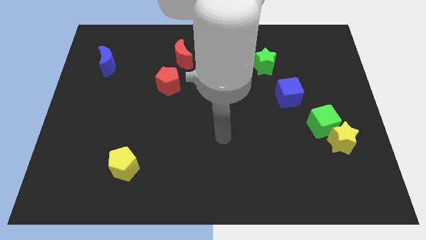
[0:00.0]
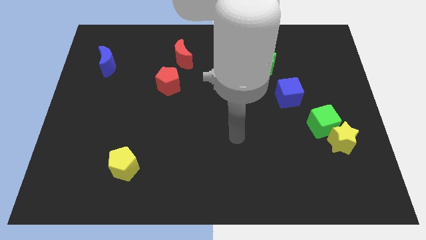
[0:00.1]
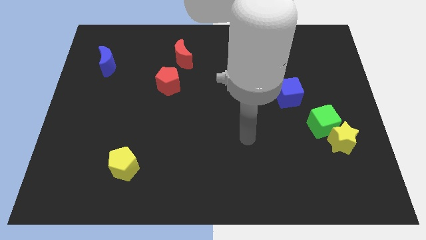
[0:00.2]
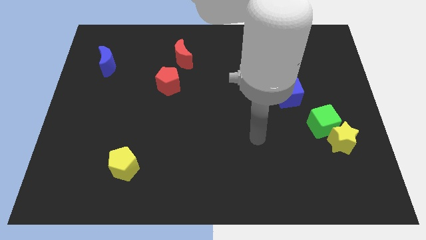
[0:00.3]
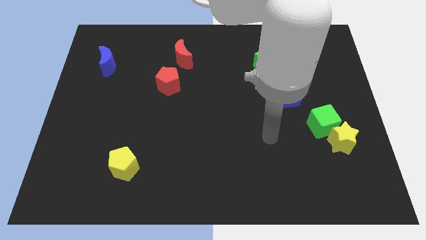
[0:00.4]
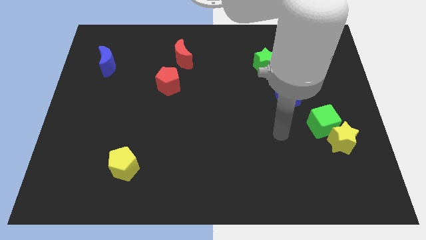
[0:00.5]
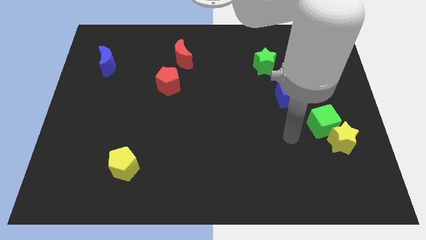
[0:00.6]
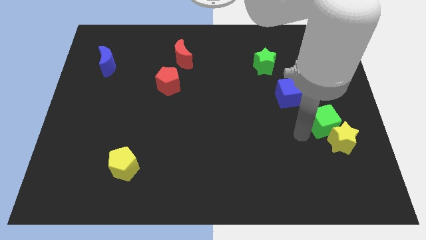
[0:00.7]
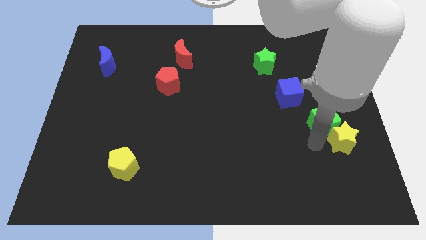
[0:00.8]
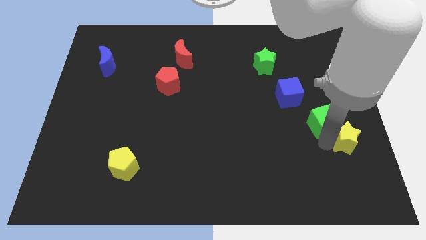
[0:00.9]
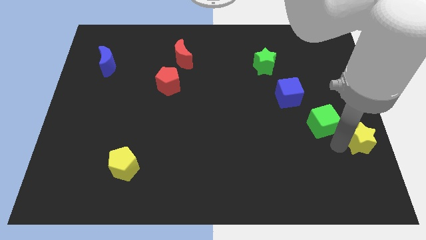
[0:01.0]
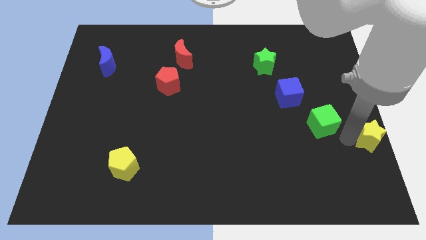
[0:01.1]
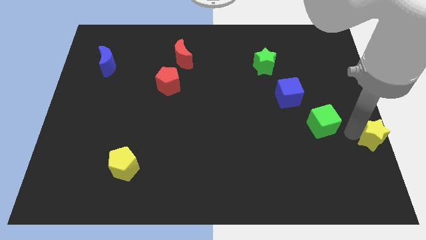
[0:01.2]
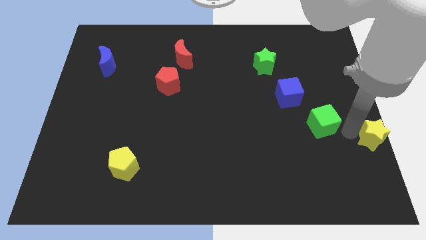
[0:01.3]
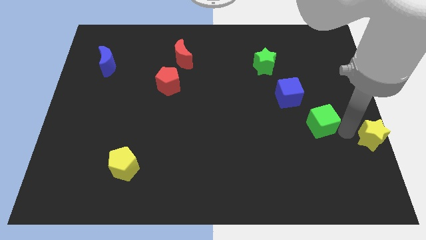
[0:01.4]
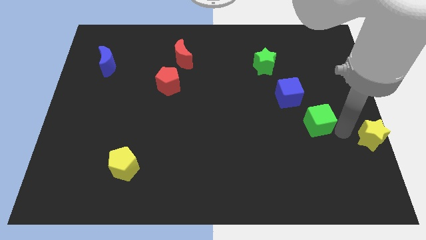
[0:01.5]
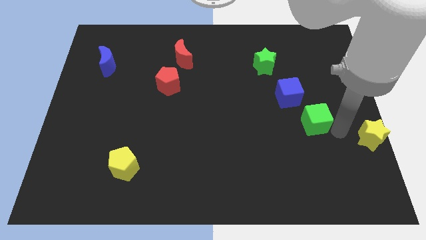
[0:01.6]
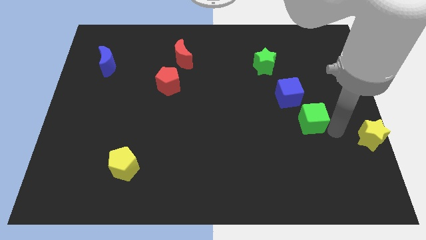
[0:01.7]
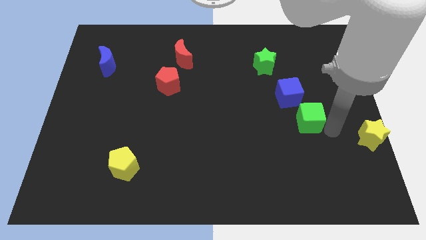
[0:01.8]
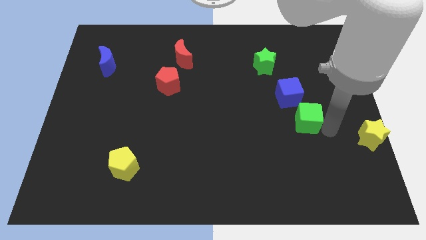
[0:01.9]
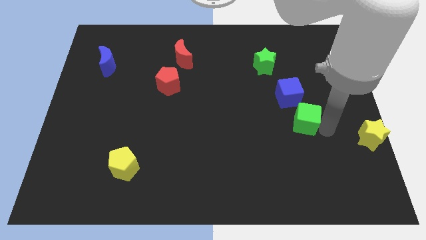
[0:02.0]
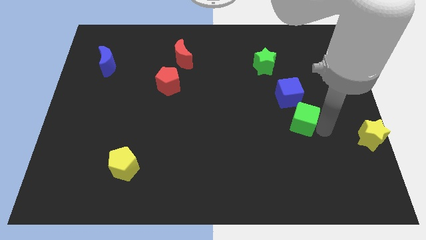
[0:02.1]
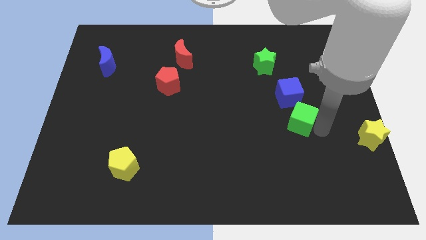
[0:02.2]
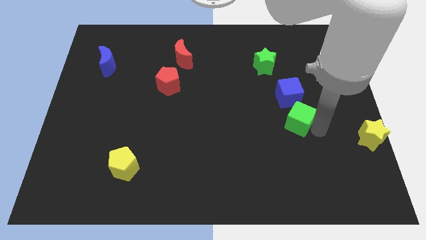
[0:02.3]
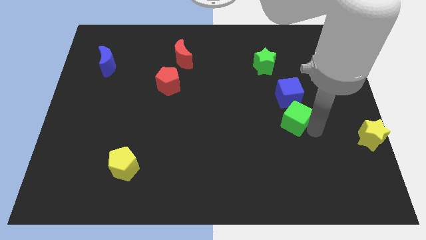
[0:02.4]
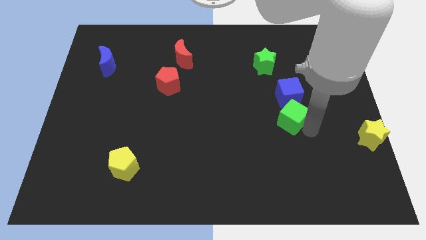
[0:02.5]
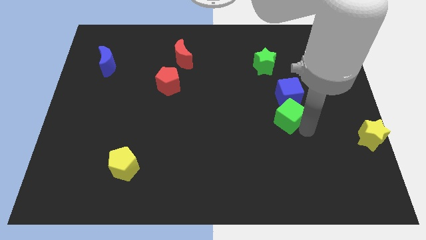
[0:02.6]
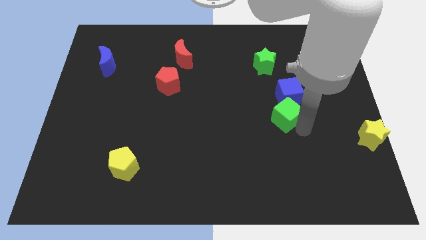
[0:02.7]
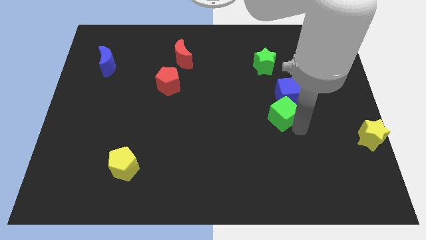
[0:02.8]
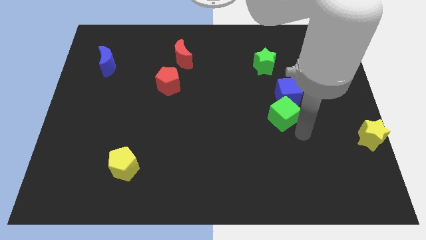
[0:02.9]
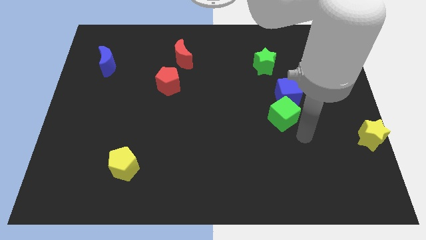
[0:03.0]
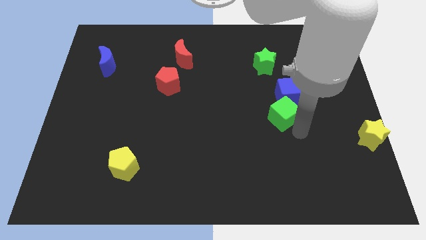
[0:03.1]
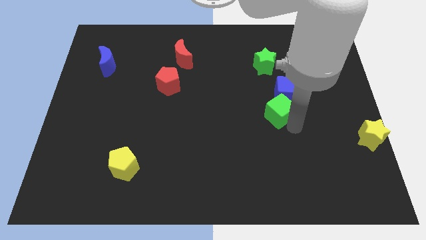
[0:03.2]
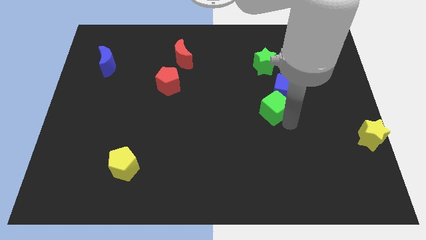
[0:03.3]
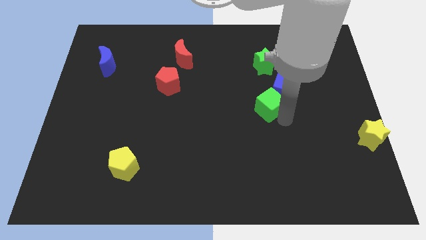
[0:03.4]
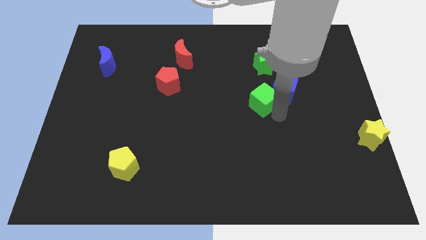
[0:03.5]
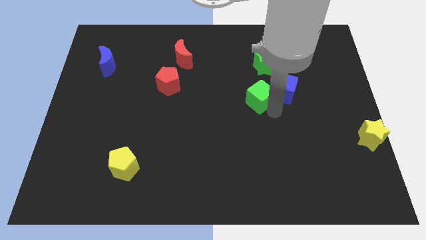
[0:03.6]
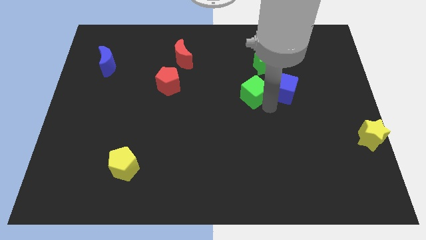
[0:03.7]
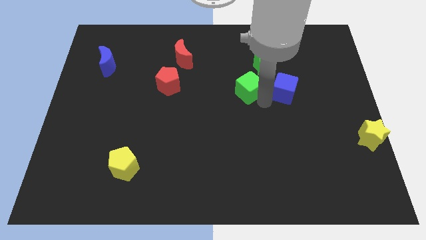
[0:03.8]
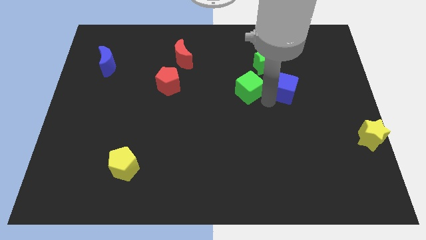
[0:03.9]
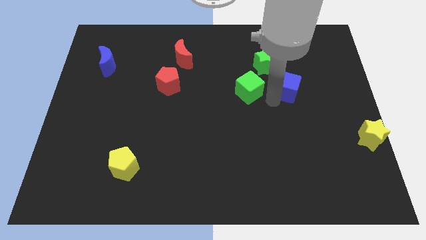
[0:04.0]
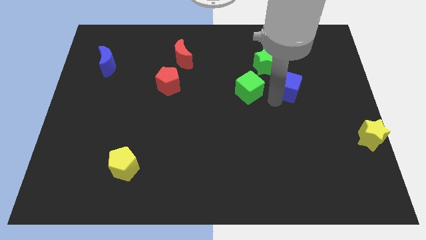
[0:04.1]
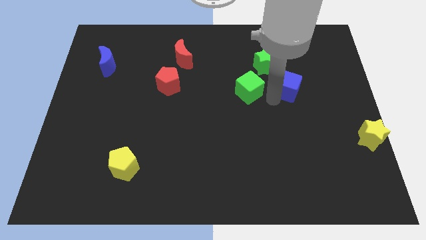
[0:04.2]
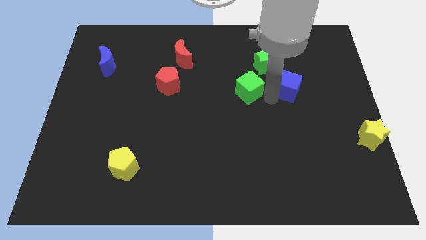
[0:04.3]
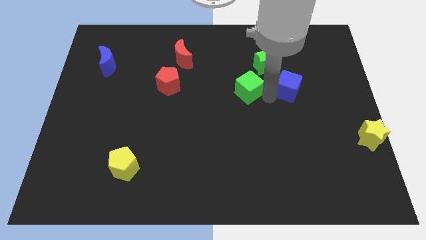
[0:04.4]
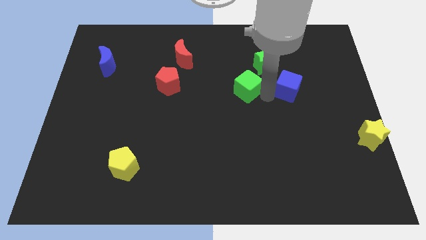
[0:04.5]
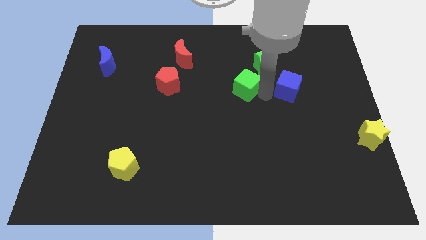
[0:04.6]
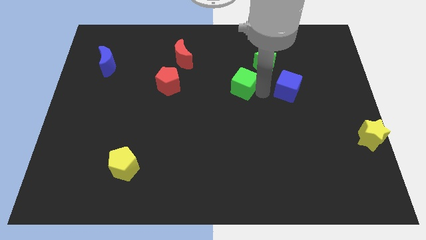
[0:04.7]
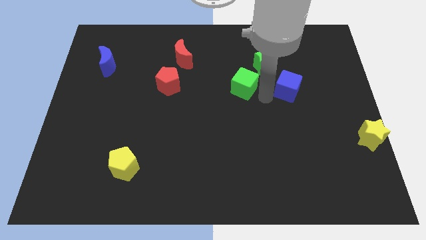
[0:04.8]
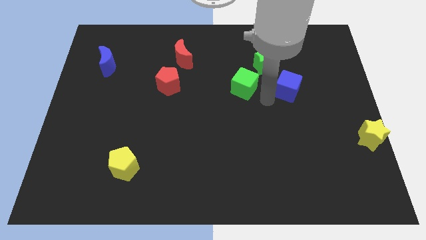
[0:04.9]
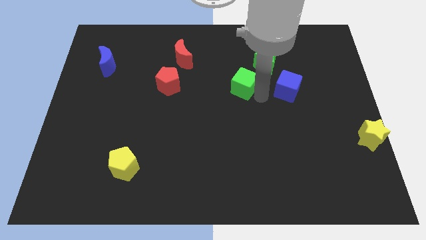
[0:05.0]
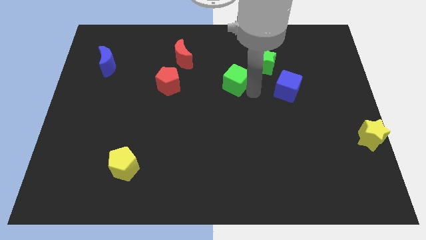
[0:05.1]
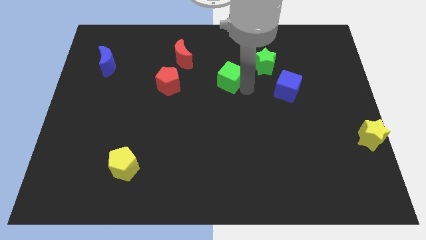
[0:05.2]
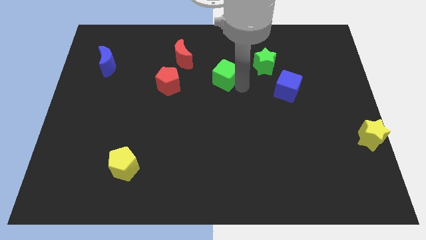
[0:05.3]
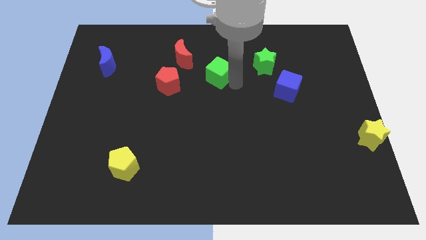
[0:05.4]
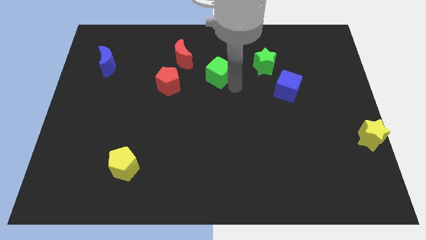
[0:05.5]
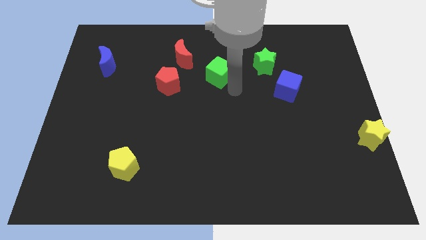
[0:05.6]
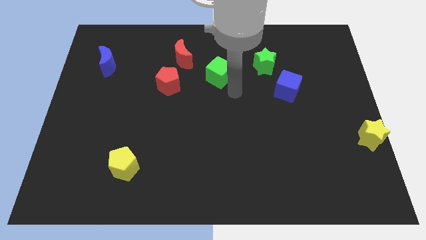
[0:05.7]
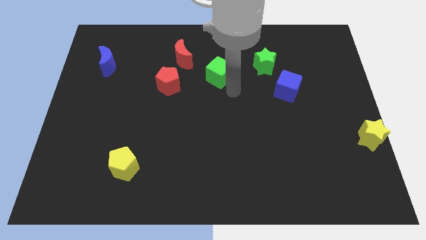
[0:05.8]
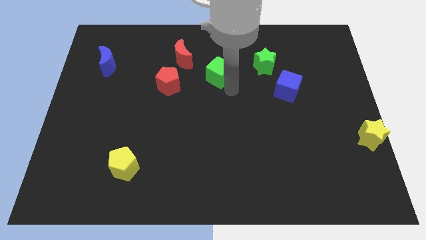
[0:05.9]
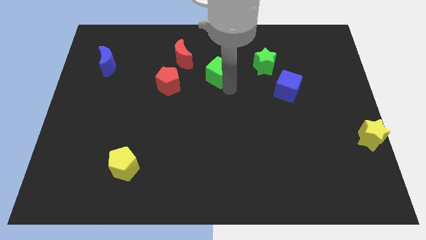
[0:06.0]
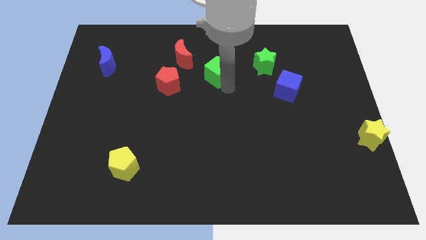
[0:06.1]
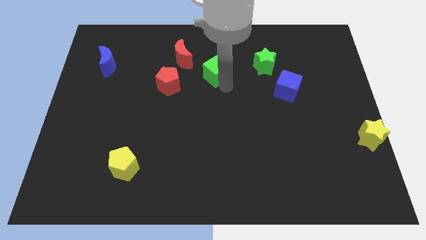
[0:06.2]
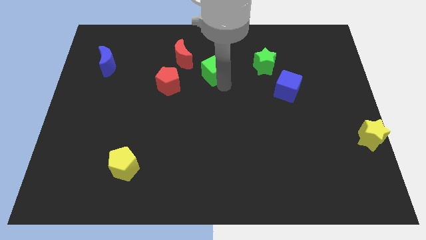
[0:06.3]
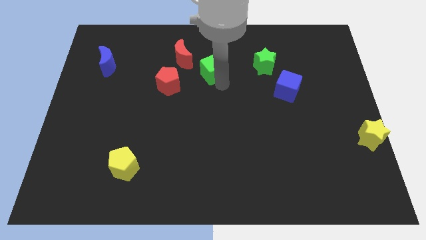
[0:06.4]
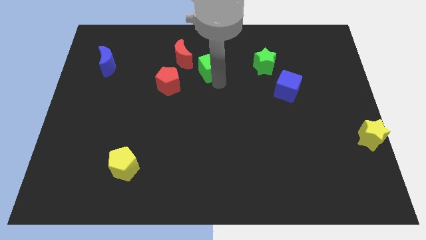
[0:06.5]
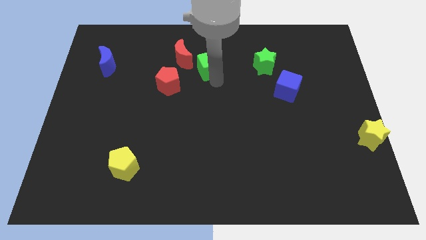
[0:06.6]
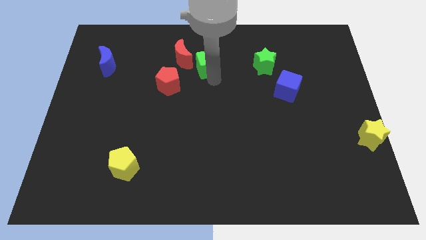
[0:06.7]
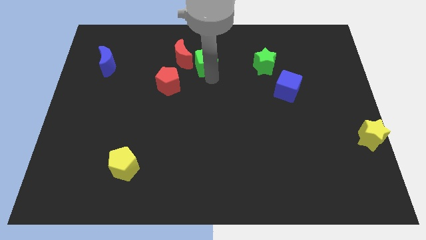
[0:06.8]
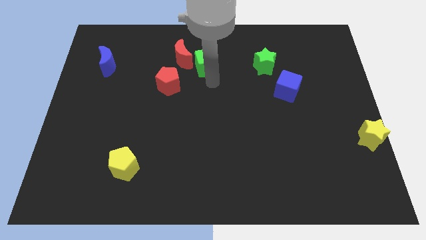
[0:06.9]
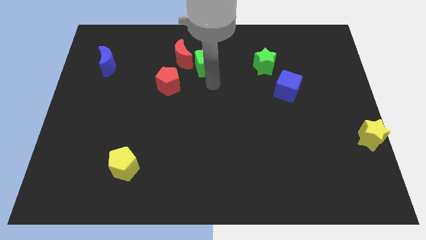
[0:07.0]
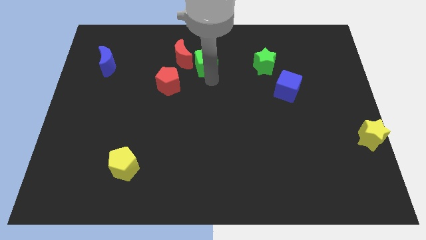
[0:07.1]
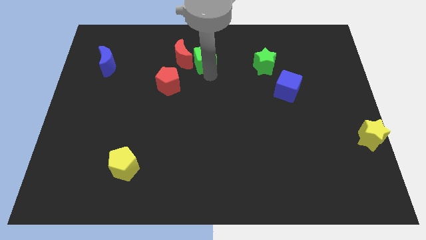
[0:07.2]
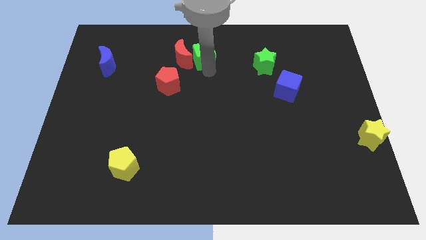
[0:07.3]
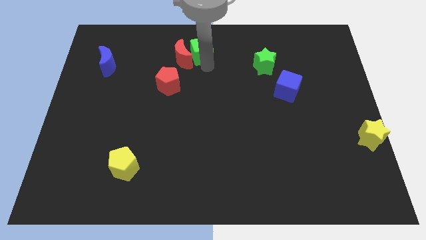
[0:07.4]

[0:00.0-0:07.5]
slide the green cube to the top
